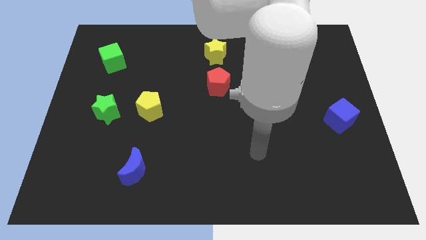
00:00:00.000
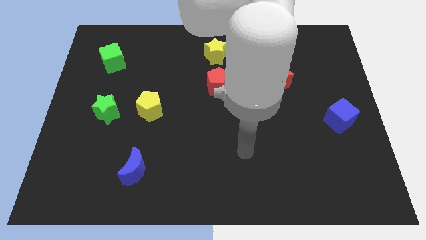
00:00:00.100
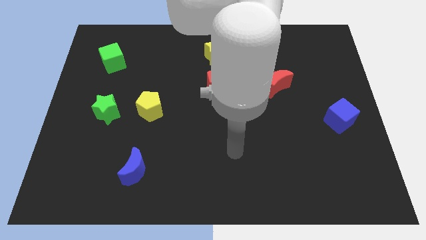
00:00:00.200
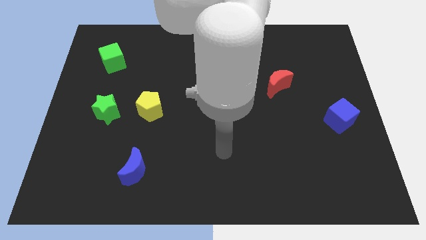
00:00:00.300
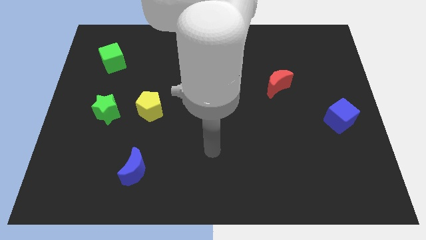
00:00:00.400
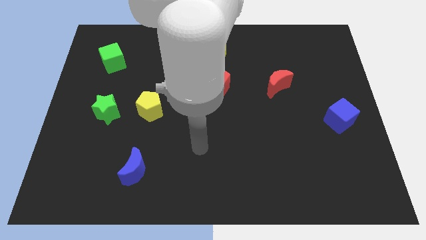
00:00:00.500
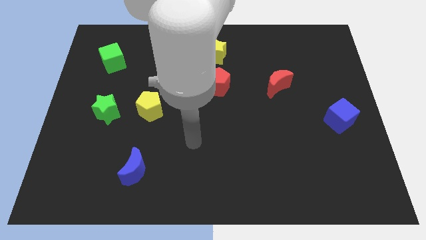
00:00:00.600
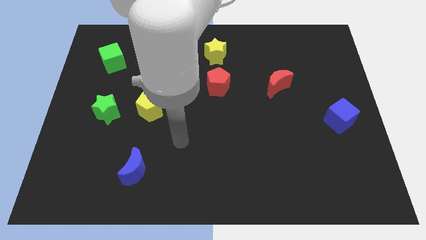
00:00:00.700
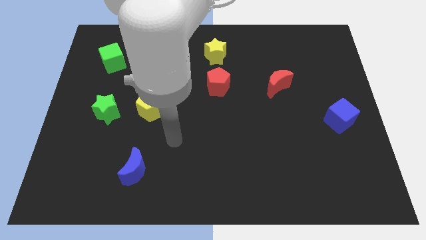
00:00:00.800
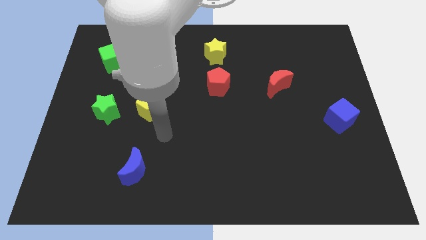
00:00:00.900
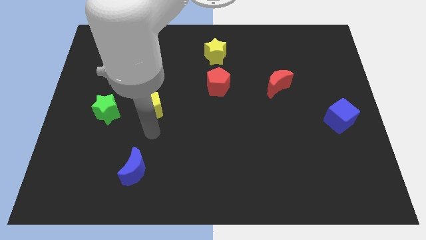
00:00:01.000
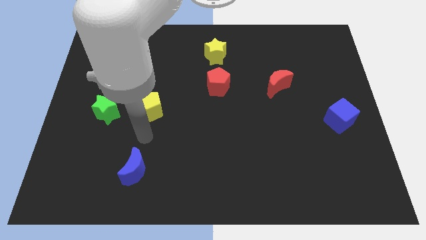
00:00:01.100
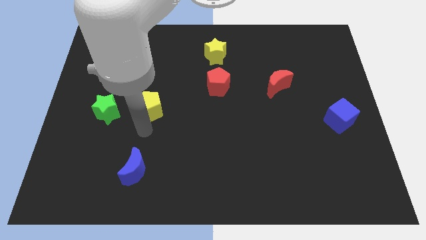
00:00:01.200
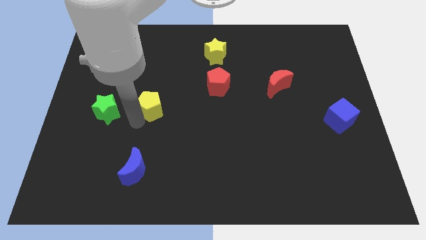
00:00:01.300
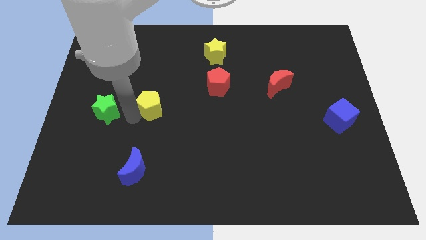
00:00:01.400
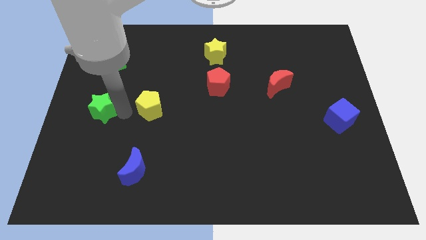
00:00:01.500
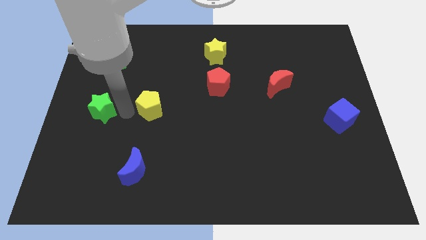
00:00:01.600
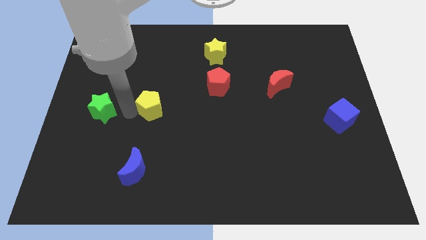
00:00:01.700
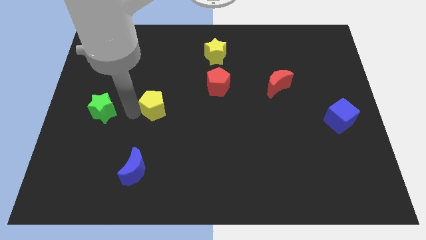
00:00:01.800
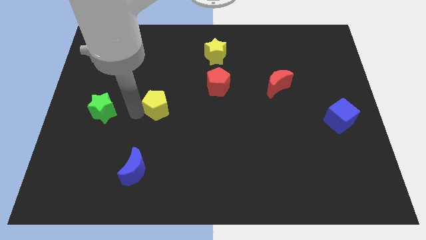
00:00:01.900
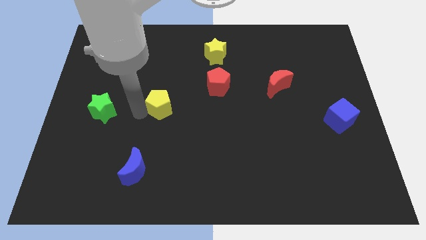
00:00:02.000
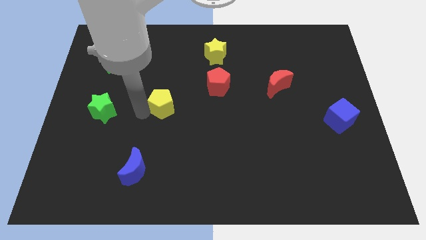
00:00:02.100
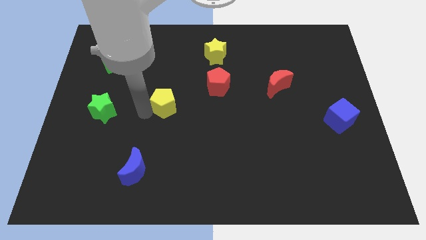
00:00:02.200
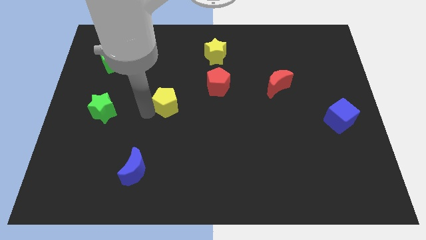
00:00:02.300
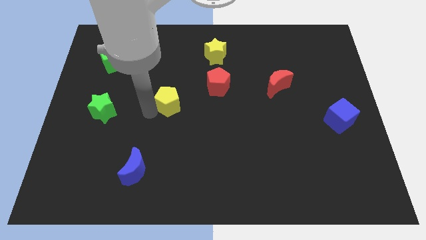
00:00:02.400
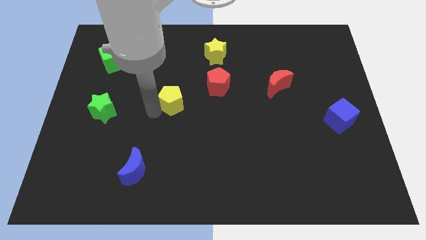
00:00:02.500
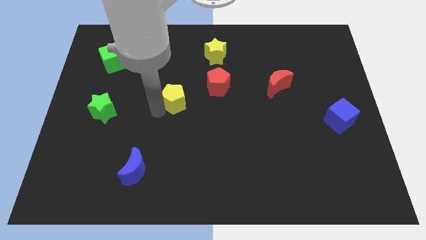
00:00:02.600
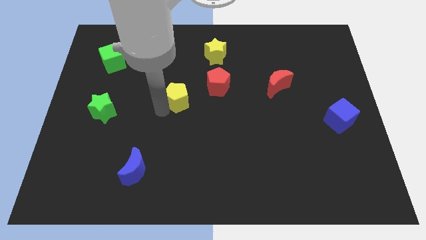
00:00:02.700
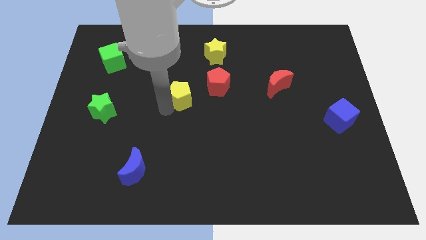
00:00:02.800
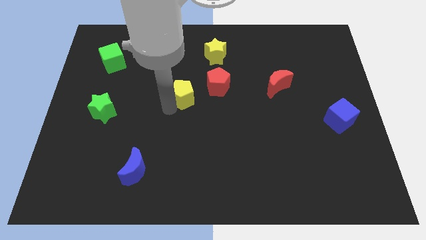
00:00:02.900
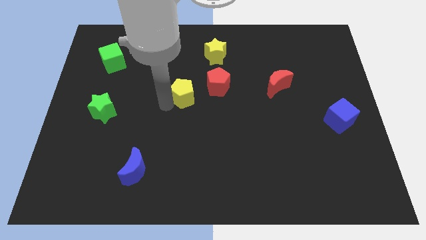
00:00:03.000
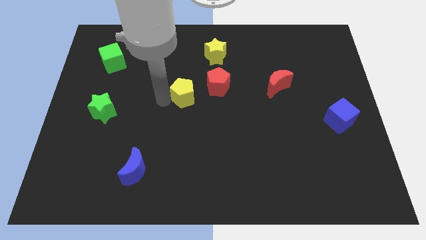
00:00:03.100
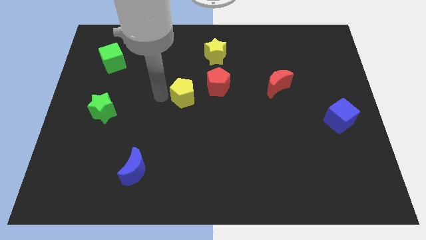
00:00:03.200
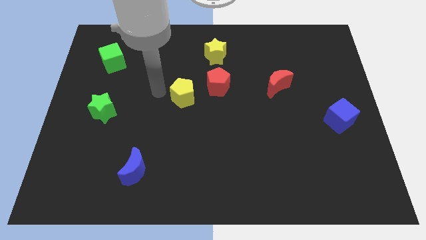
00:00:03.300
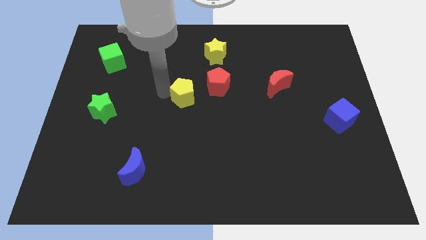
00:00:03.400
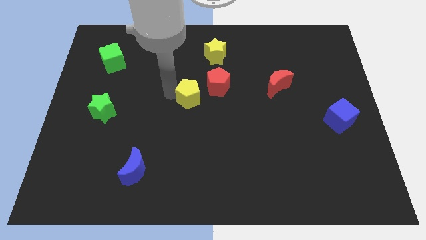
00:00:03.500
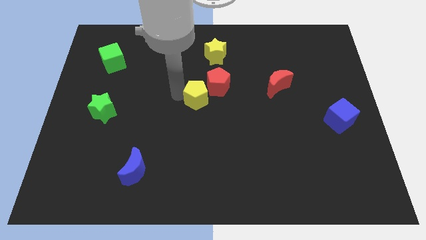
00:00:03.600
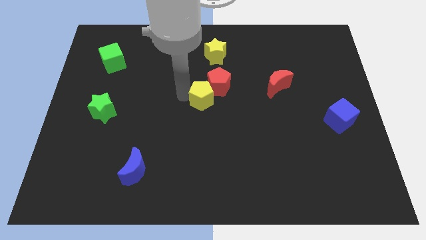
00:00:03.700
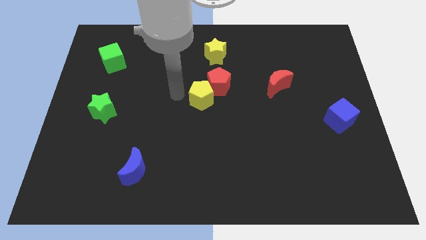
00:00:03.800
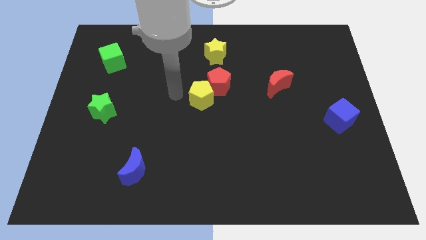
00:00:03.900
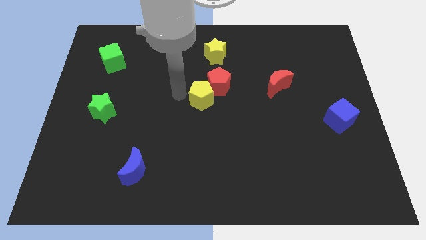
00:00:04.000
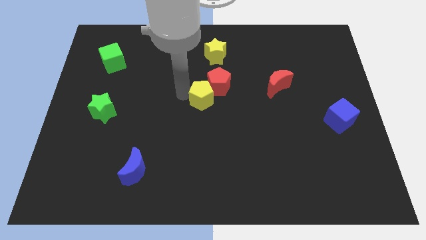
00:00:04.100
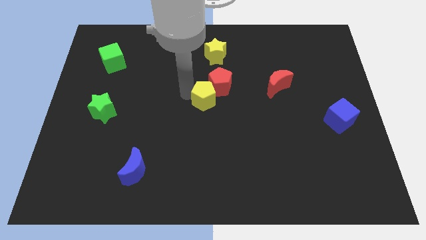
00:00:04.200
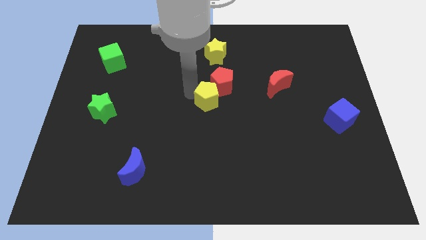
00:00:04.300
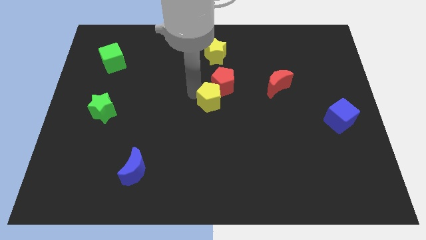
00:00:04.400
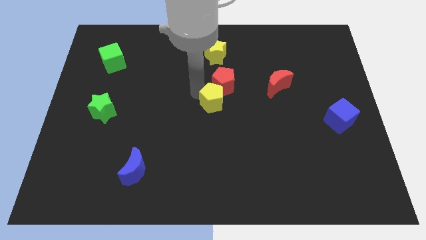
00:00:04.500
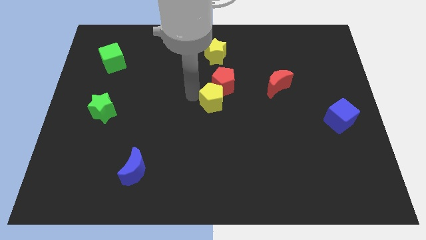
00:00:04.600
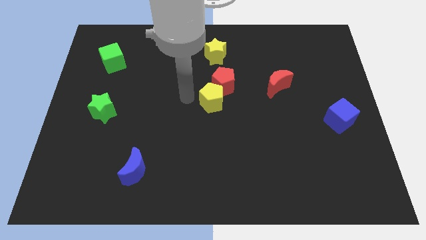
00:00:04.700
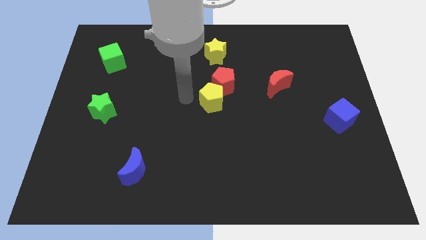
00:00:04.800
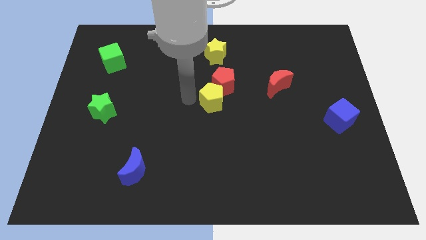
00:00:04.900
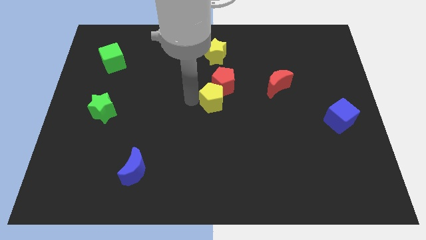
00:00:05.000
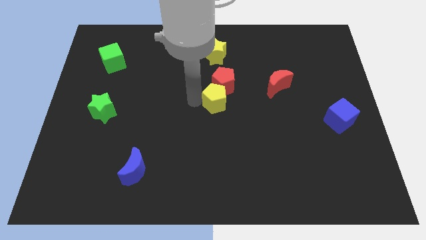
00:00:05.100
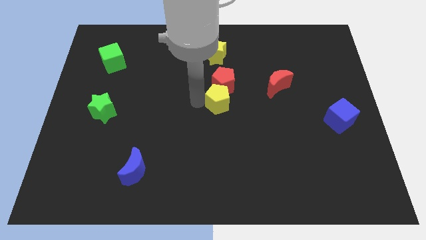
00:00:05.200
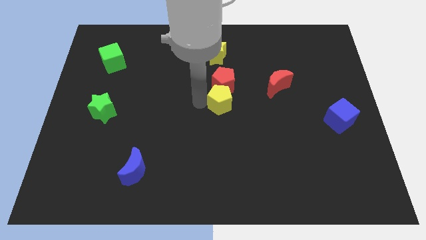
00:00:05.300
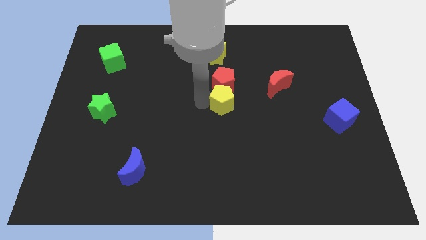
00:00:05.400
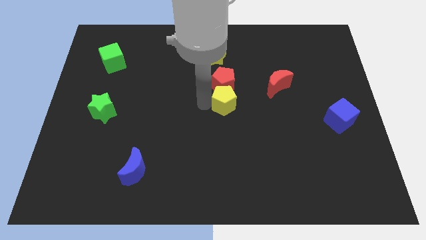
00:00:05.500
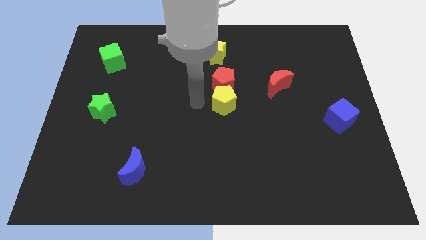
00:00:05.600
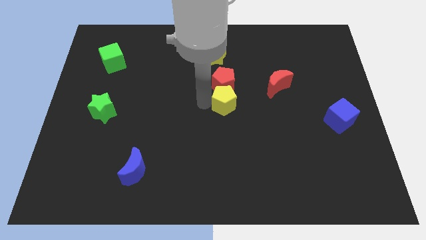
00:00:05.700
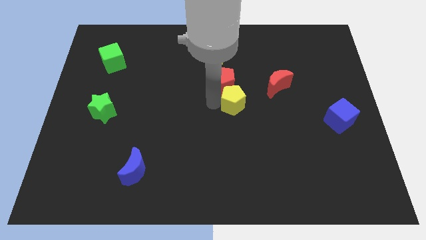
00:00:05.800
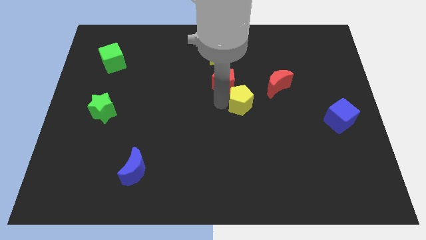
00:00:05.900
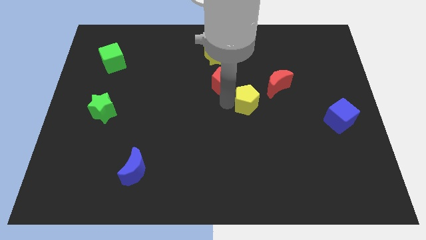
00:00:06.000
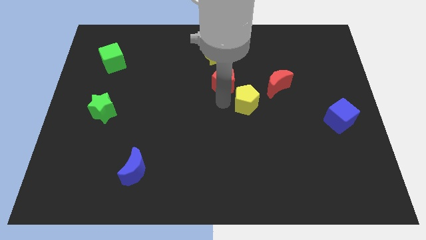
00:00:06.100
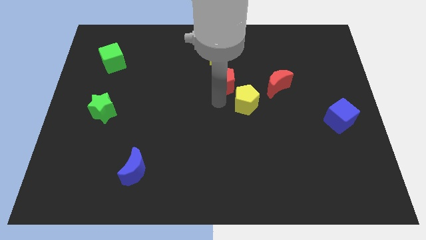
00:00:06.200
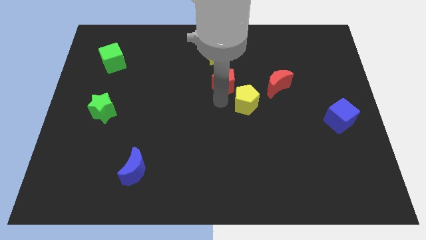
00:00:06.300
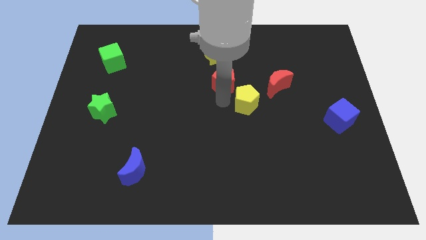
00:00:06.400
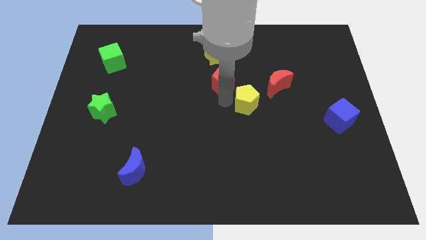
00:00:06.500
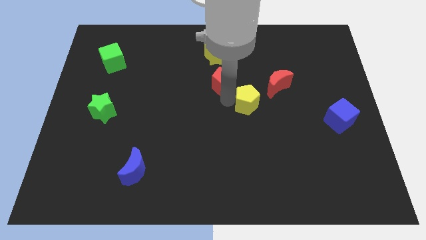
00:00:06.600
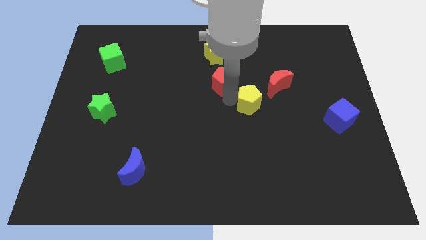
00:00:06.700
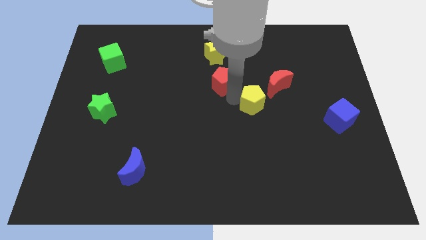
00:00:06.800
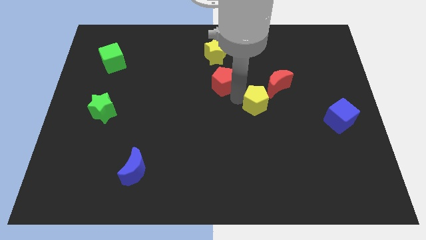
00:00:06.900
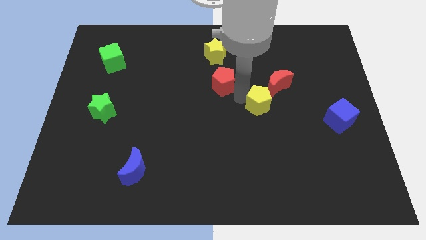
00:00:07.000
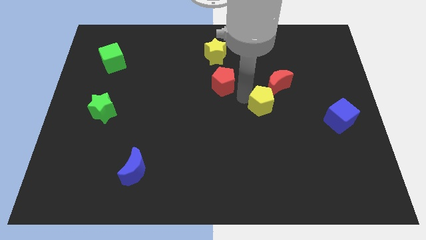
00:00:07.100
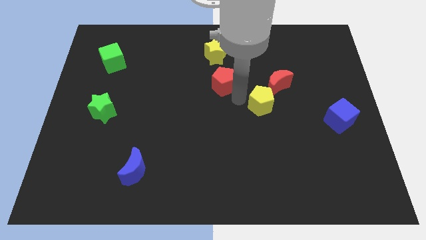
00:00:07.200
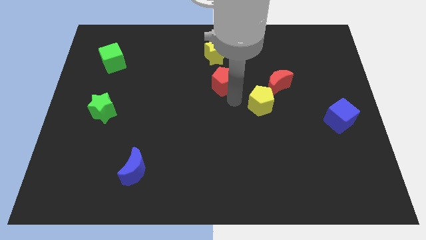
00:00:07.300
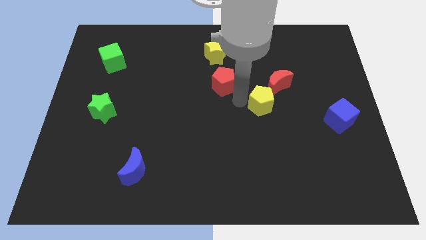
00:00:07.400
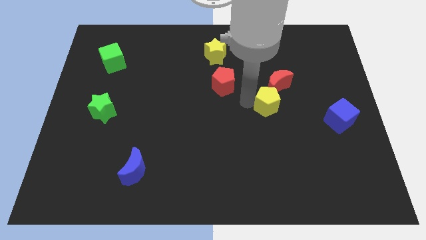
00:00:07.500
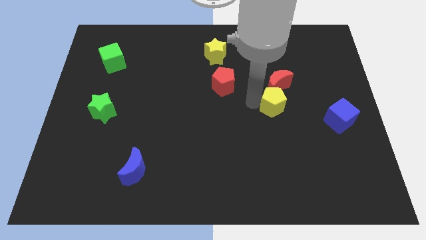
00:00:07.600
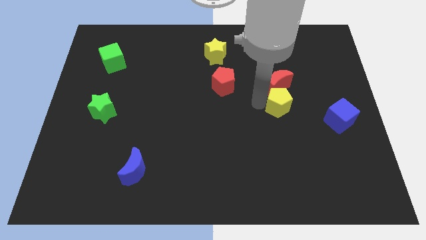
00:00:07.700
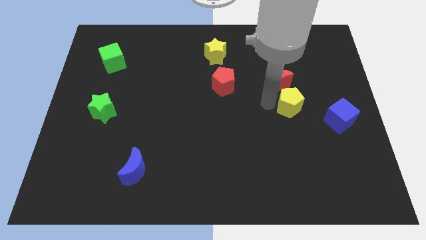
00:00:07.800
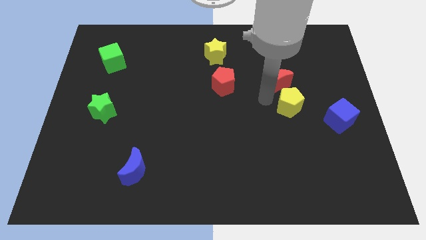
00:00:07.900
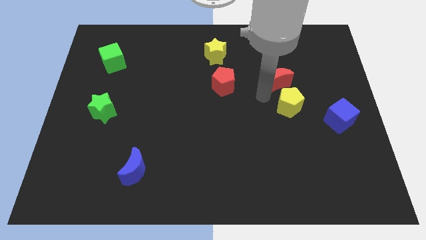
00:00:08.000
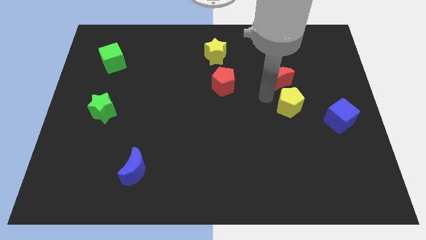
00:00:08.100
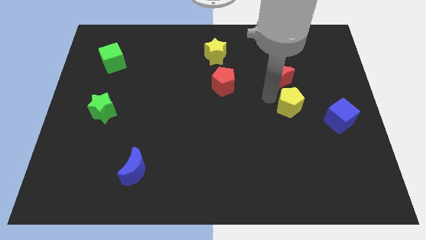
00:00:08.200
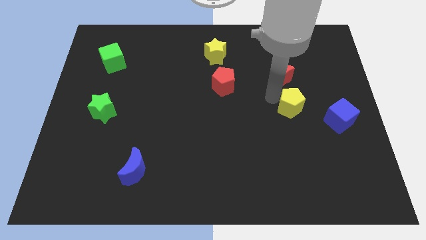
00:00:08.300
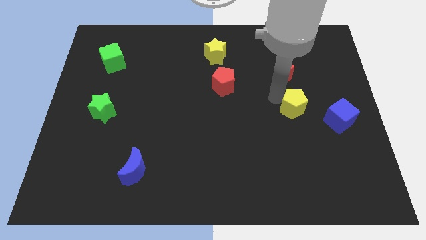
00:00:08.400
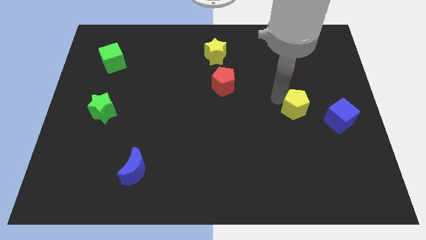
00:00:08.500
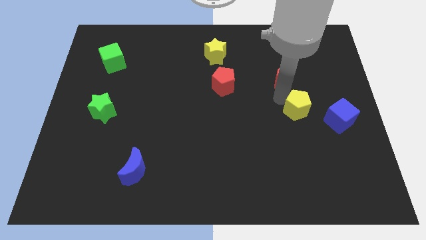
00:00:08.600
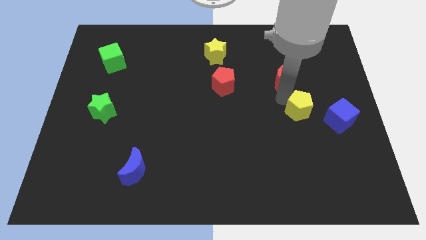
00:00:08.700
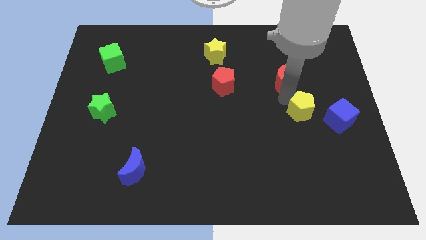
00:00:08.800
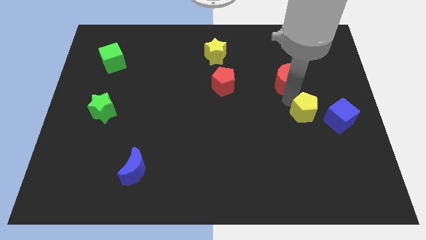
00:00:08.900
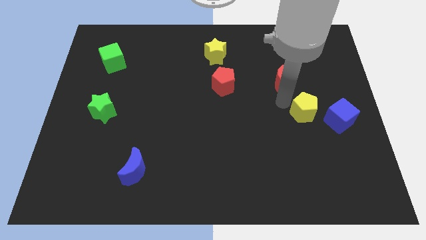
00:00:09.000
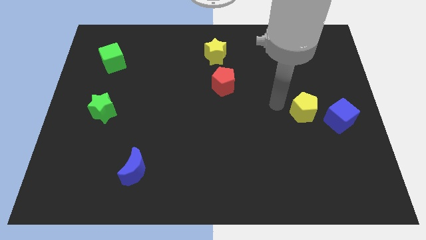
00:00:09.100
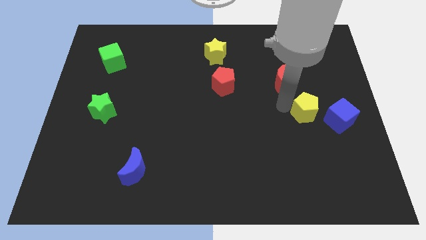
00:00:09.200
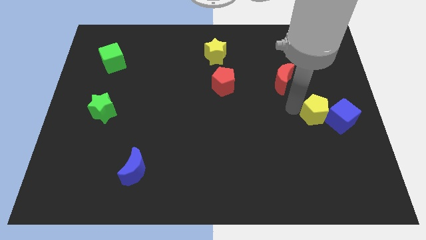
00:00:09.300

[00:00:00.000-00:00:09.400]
put the yellow pentagon to the blue cube
